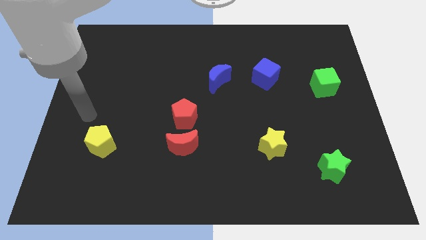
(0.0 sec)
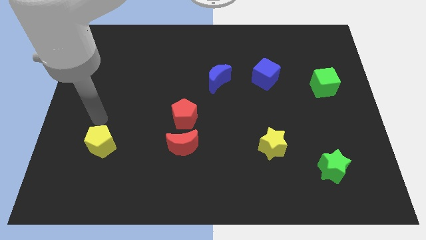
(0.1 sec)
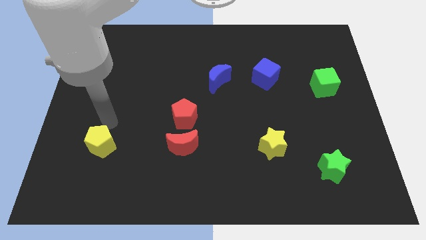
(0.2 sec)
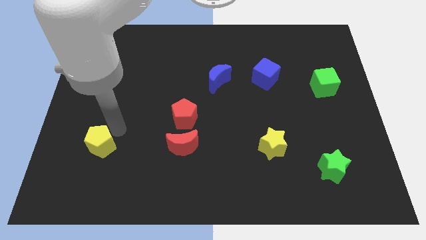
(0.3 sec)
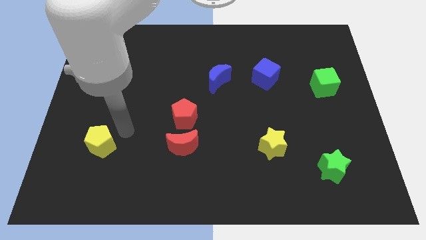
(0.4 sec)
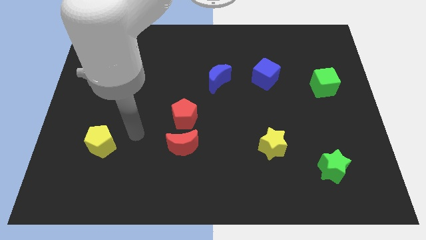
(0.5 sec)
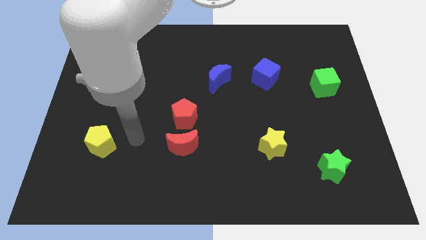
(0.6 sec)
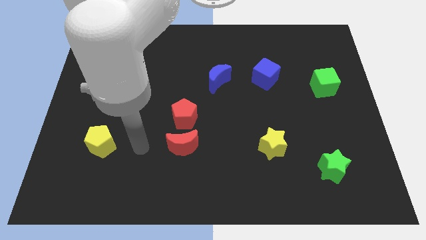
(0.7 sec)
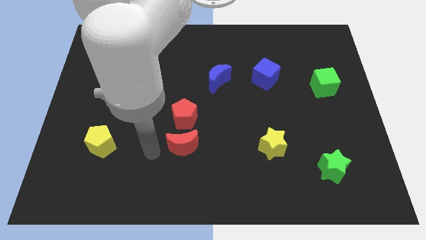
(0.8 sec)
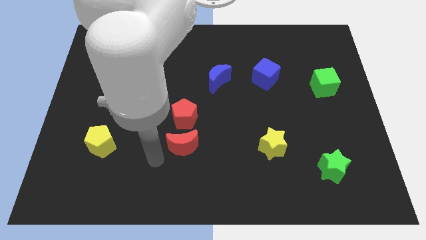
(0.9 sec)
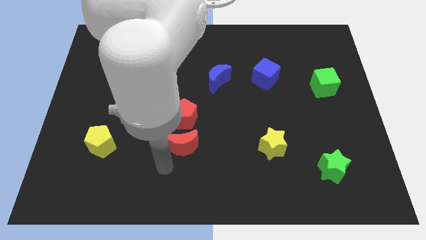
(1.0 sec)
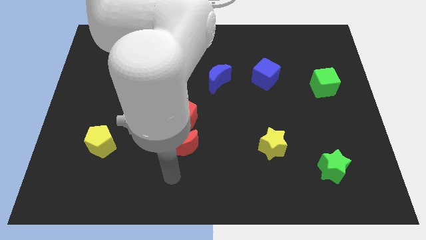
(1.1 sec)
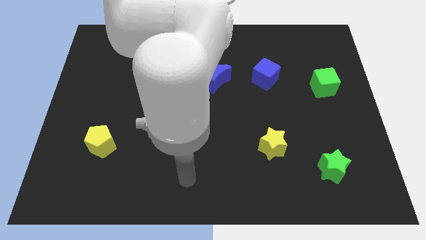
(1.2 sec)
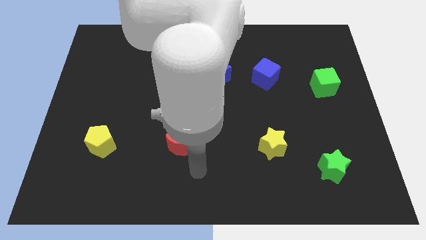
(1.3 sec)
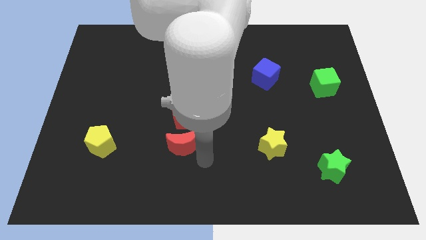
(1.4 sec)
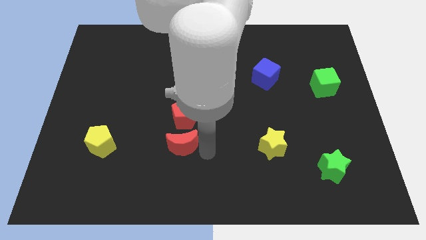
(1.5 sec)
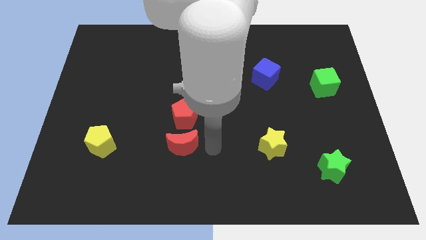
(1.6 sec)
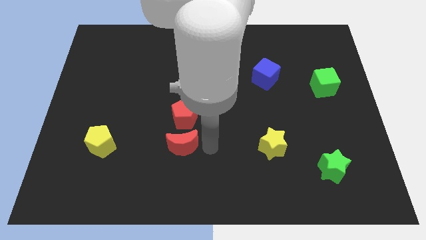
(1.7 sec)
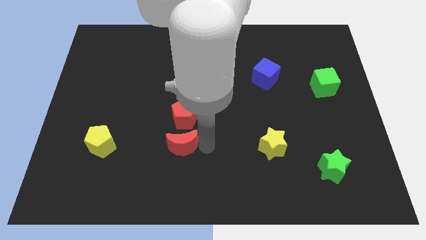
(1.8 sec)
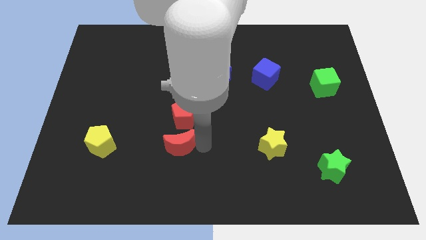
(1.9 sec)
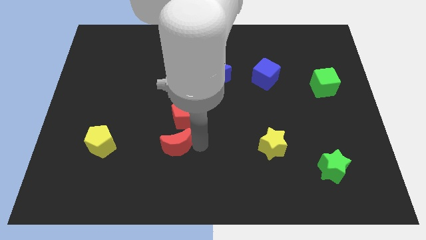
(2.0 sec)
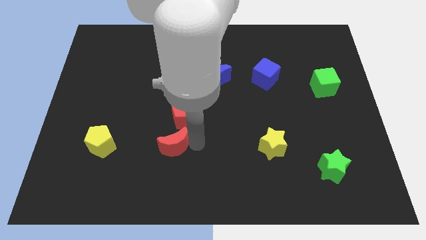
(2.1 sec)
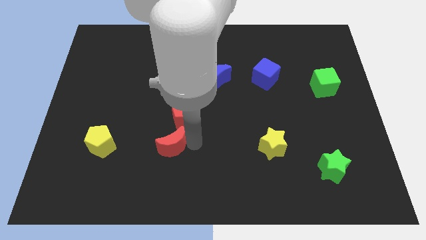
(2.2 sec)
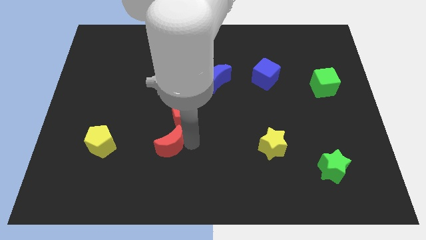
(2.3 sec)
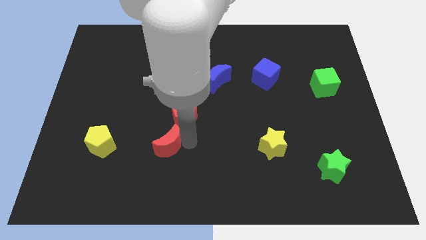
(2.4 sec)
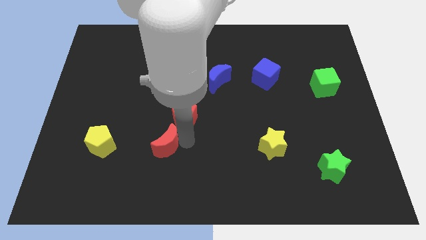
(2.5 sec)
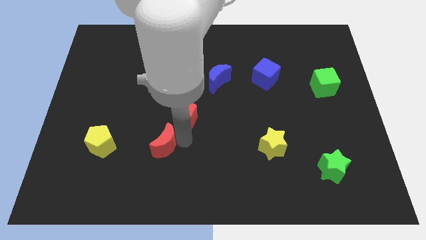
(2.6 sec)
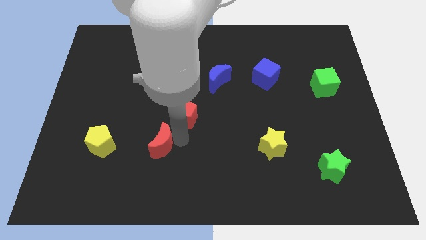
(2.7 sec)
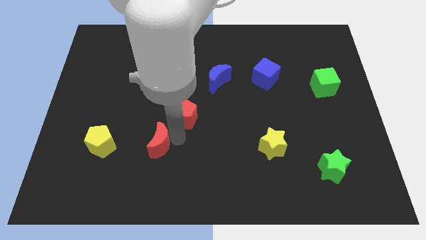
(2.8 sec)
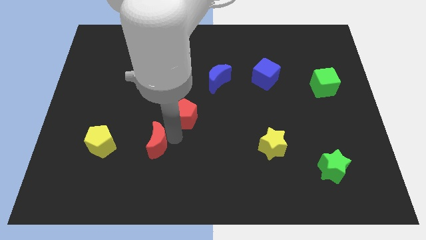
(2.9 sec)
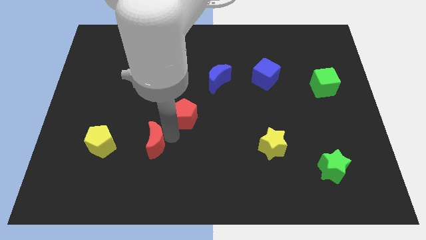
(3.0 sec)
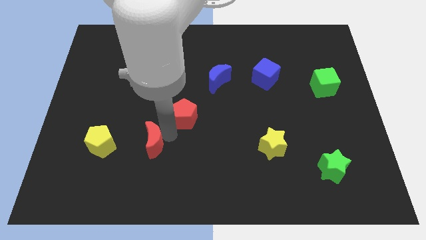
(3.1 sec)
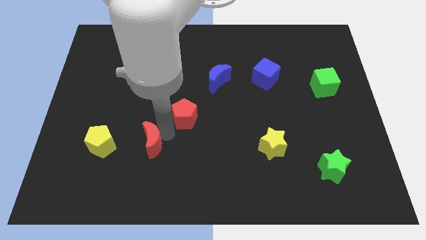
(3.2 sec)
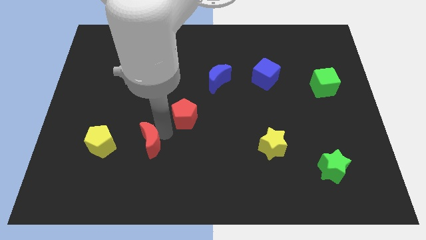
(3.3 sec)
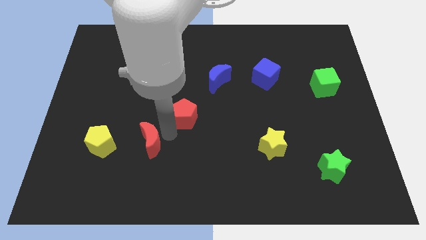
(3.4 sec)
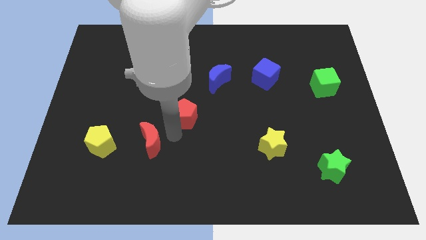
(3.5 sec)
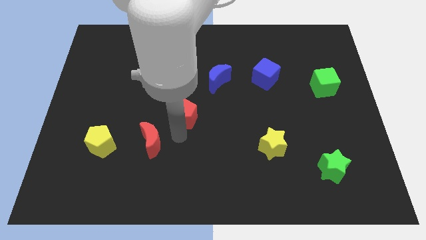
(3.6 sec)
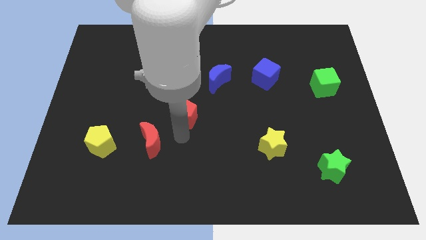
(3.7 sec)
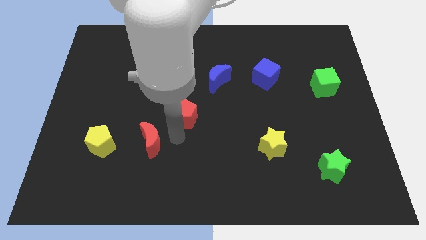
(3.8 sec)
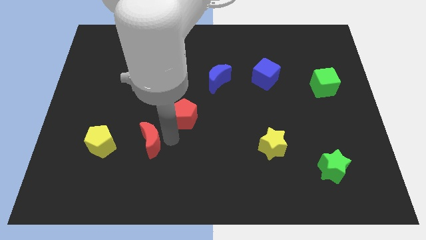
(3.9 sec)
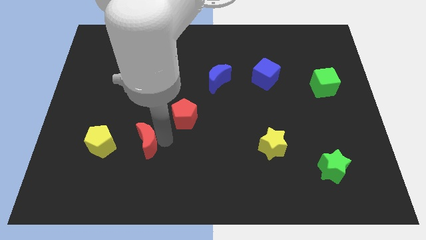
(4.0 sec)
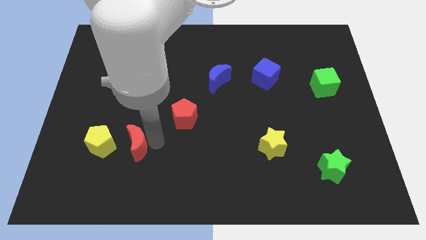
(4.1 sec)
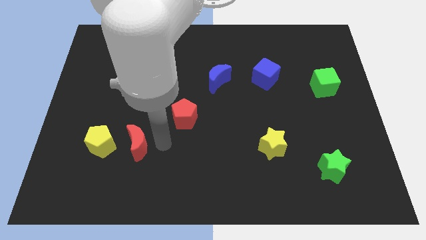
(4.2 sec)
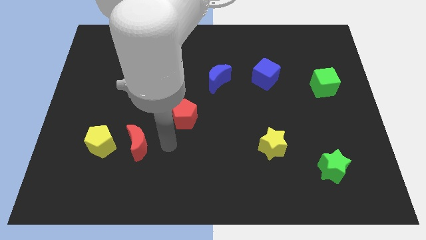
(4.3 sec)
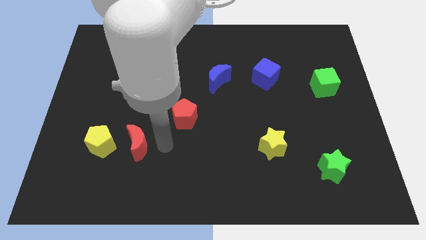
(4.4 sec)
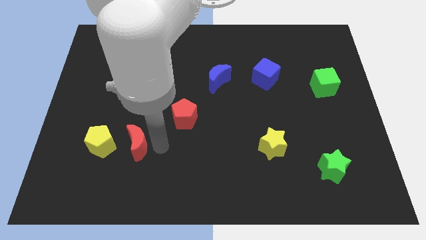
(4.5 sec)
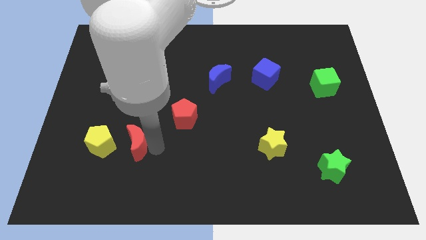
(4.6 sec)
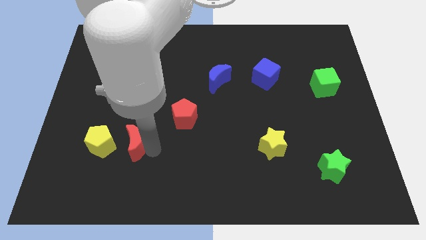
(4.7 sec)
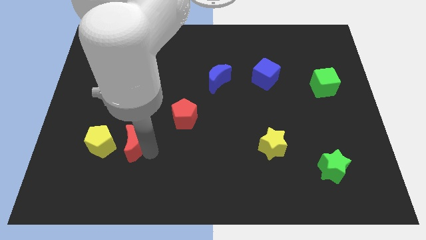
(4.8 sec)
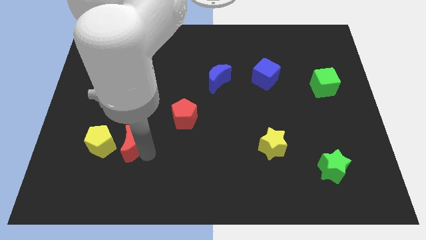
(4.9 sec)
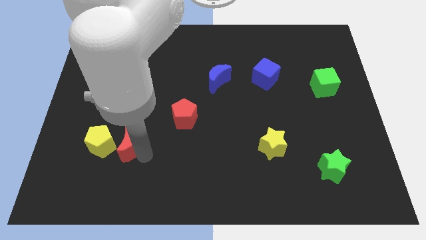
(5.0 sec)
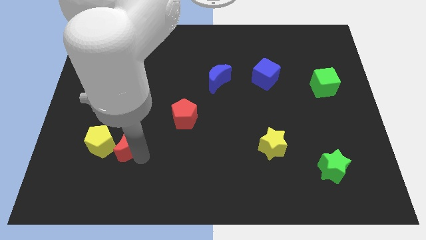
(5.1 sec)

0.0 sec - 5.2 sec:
slide the red moon towards the yellow pentagon

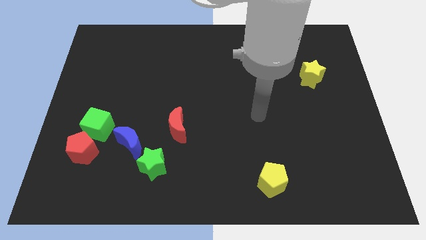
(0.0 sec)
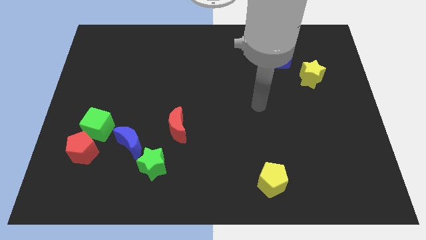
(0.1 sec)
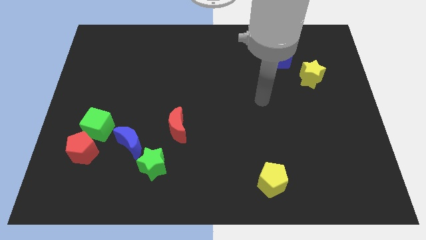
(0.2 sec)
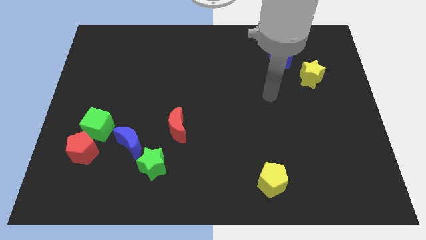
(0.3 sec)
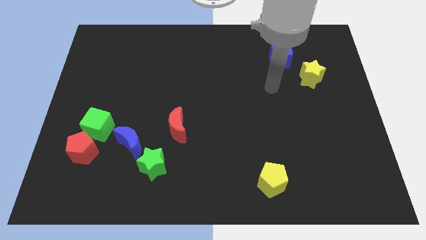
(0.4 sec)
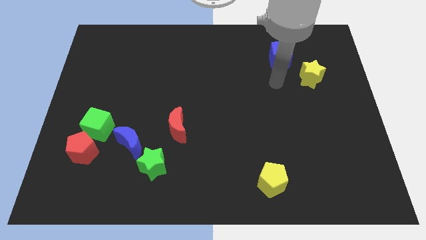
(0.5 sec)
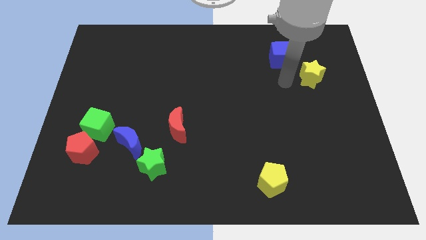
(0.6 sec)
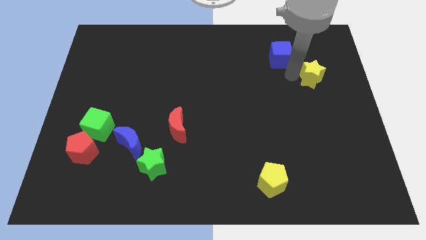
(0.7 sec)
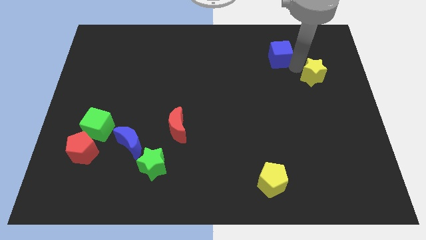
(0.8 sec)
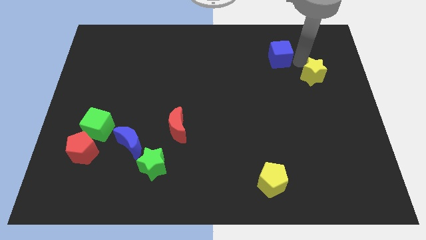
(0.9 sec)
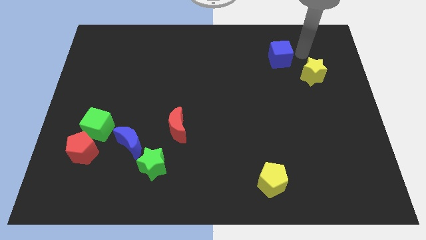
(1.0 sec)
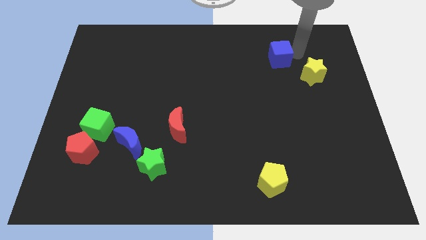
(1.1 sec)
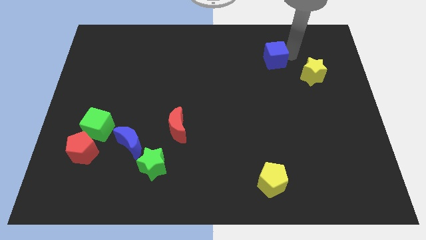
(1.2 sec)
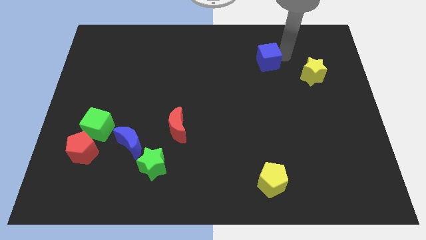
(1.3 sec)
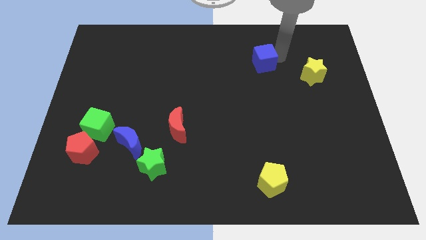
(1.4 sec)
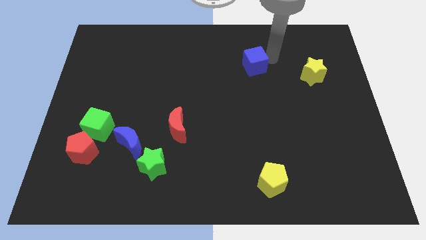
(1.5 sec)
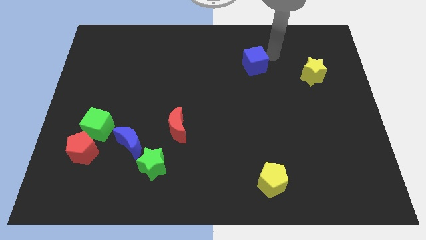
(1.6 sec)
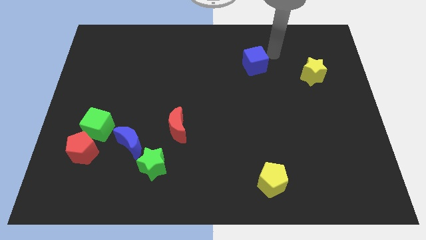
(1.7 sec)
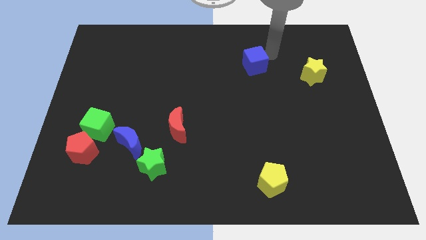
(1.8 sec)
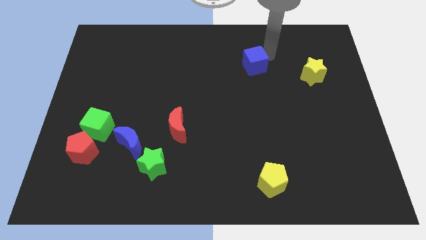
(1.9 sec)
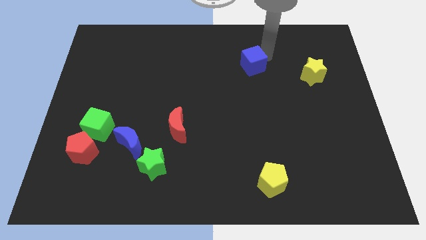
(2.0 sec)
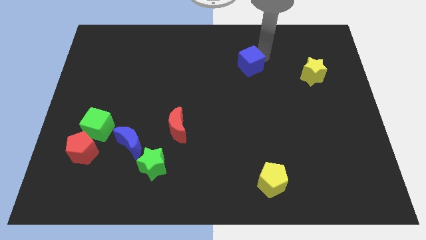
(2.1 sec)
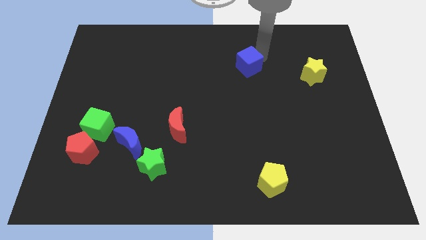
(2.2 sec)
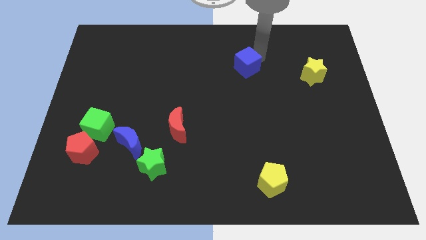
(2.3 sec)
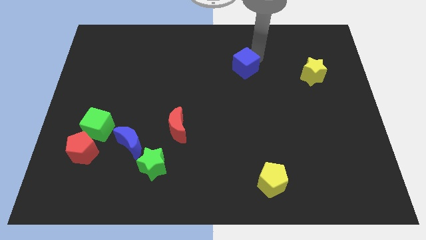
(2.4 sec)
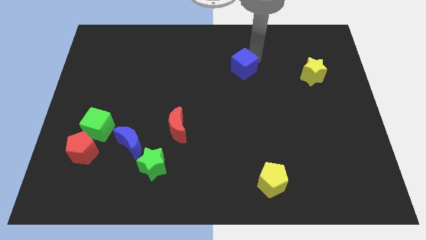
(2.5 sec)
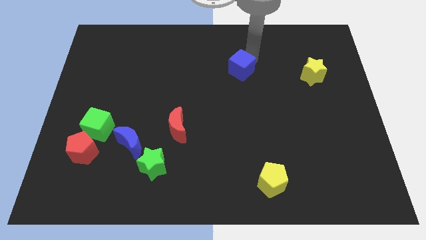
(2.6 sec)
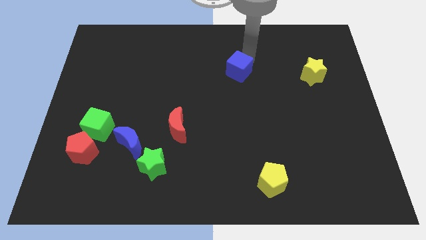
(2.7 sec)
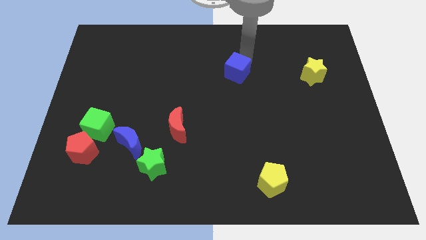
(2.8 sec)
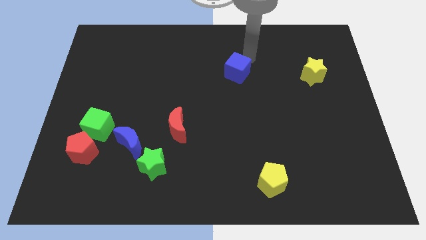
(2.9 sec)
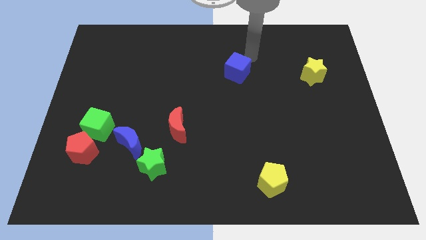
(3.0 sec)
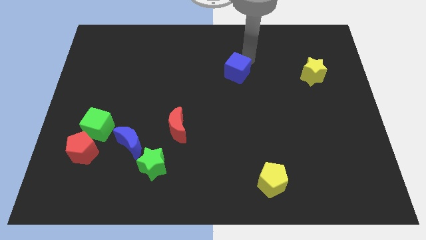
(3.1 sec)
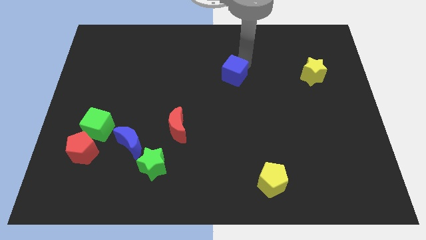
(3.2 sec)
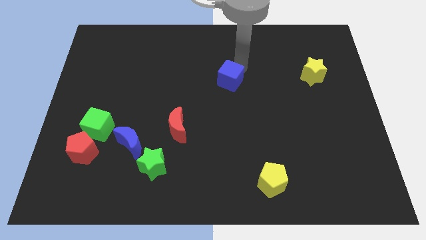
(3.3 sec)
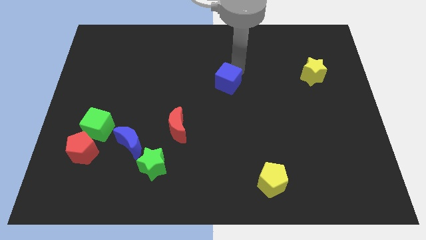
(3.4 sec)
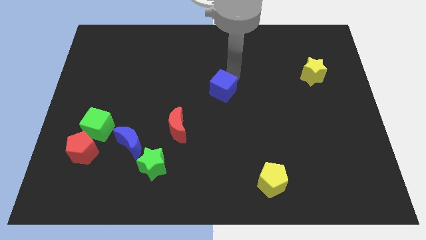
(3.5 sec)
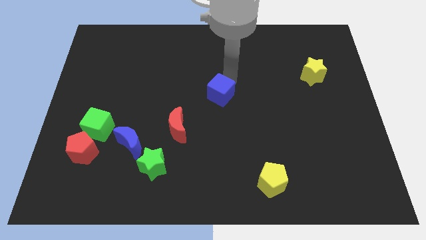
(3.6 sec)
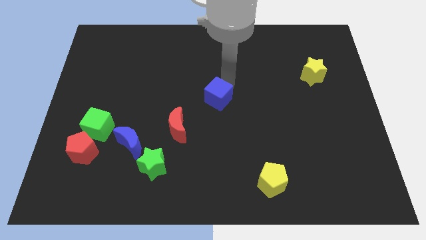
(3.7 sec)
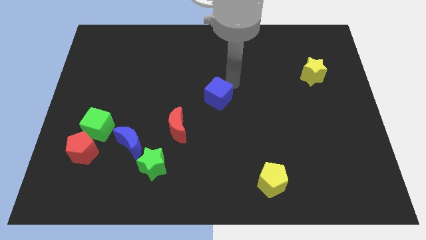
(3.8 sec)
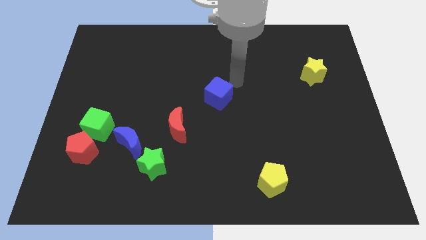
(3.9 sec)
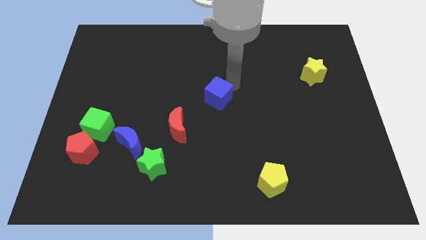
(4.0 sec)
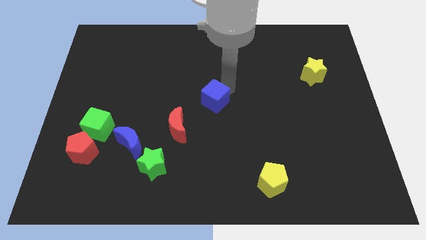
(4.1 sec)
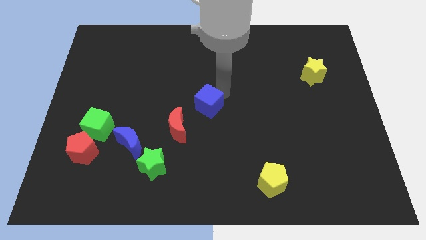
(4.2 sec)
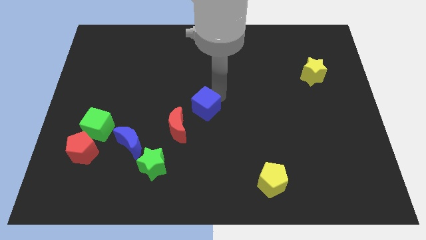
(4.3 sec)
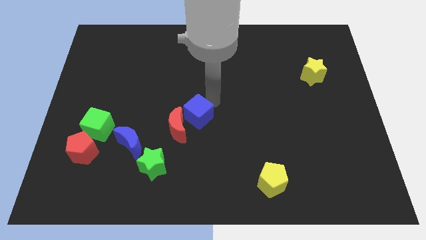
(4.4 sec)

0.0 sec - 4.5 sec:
put the blue cube to the red moon
